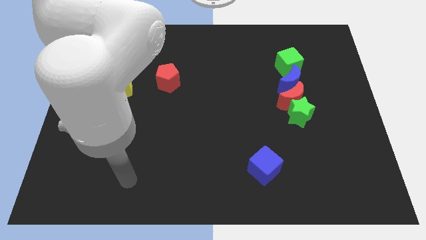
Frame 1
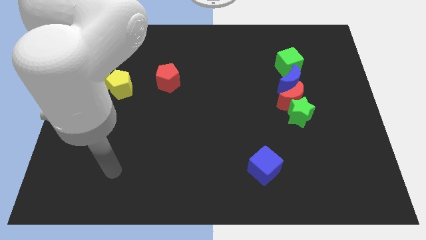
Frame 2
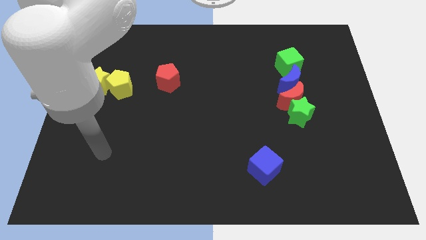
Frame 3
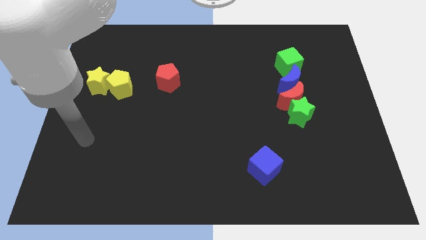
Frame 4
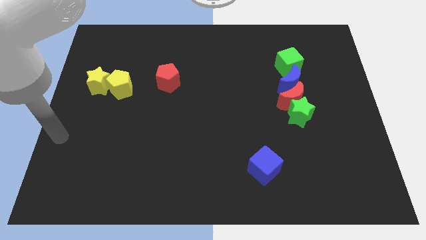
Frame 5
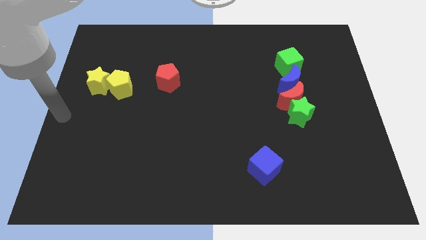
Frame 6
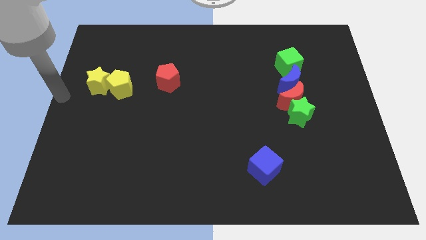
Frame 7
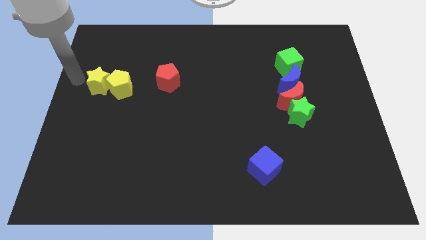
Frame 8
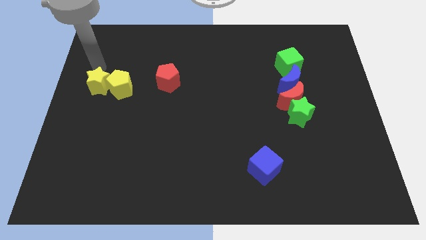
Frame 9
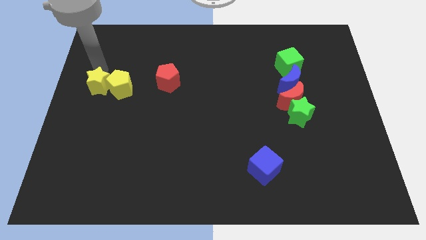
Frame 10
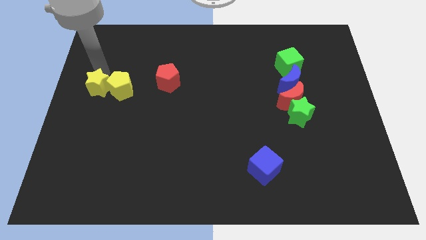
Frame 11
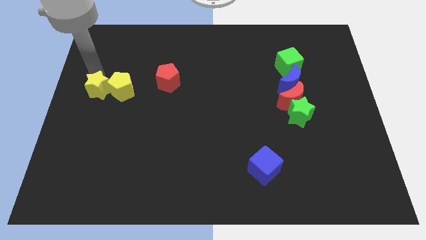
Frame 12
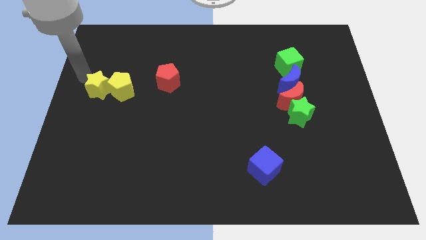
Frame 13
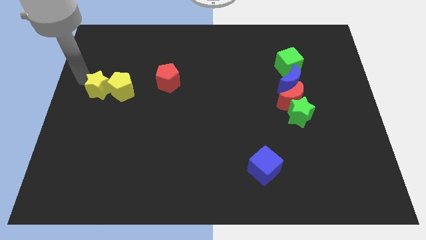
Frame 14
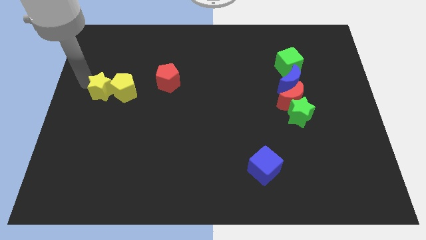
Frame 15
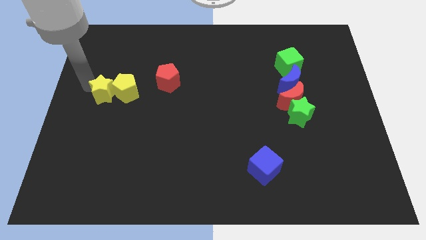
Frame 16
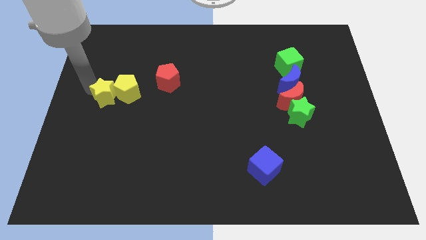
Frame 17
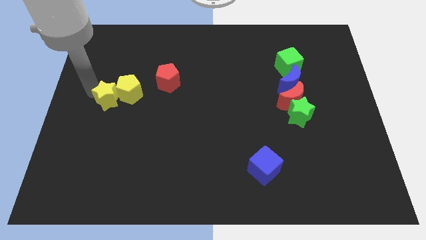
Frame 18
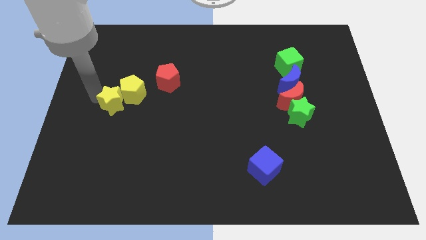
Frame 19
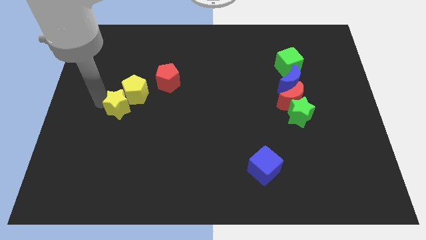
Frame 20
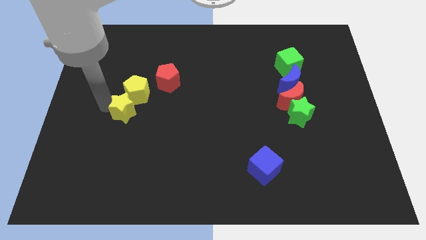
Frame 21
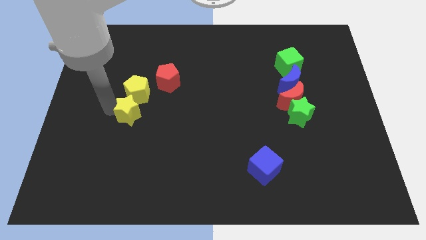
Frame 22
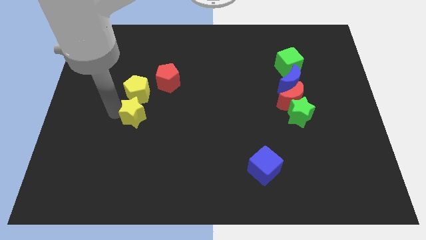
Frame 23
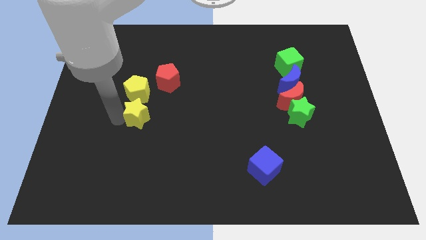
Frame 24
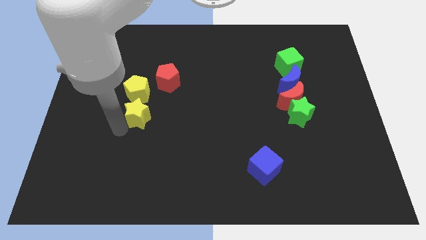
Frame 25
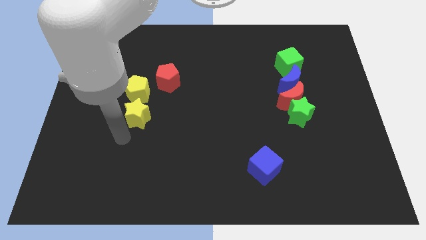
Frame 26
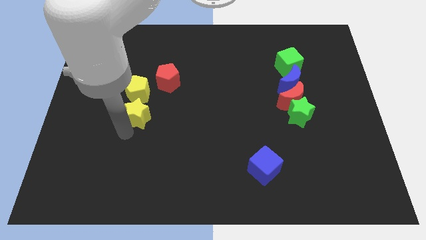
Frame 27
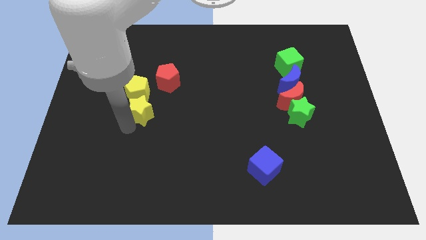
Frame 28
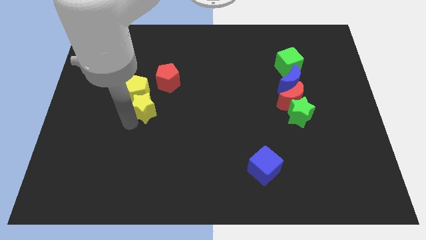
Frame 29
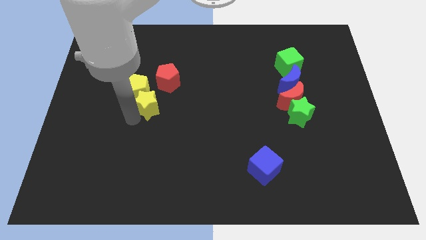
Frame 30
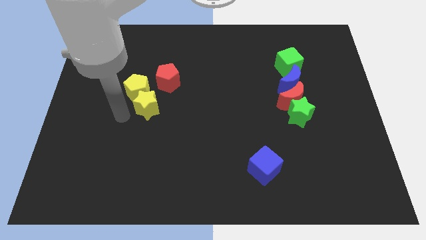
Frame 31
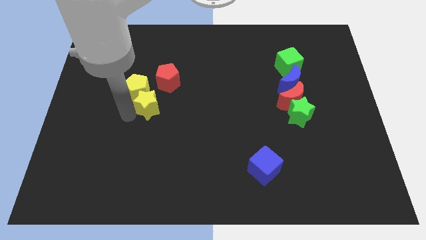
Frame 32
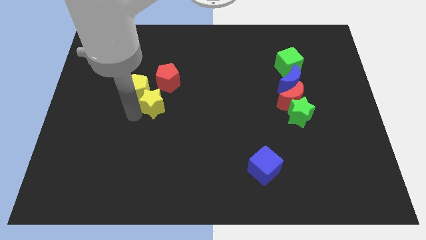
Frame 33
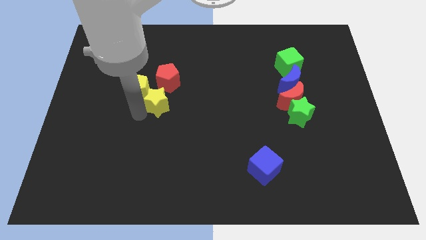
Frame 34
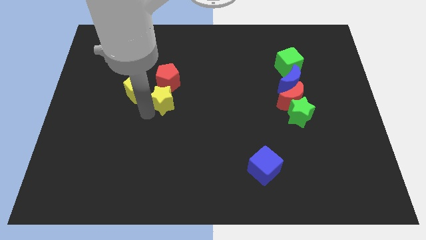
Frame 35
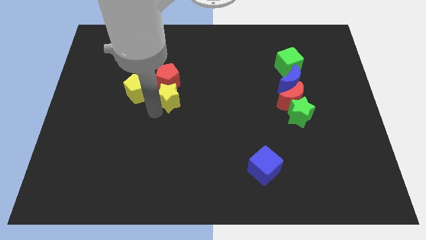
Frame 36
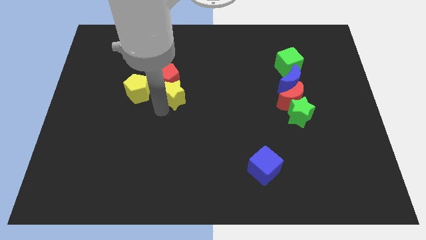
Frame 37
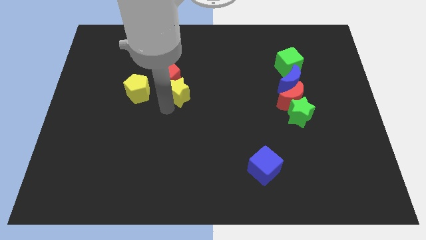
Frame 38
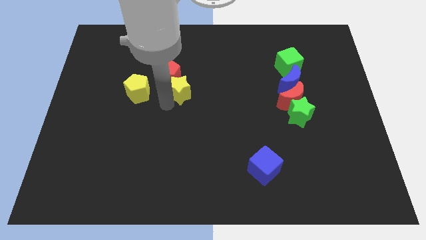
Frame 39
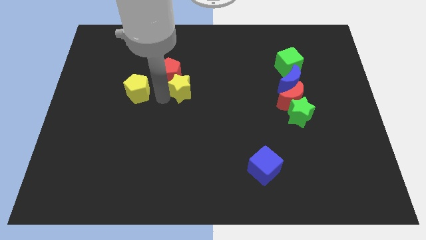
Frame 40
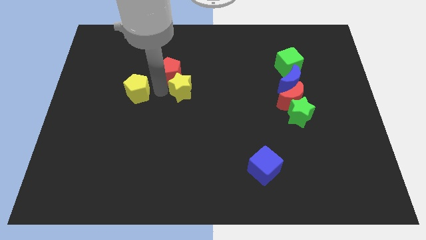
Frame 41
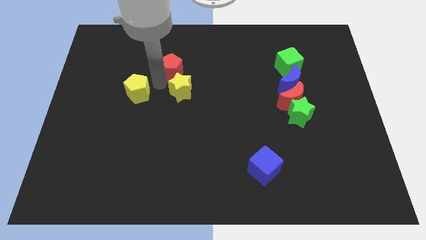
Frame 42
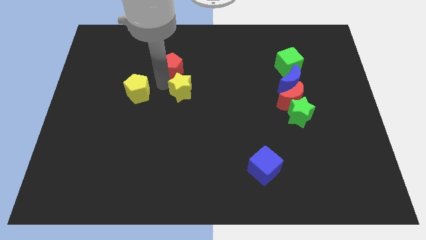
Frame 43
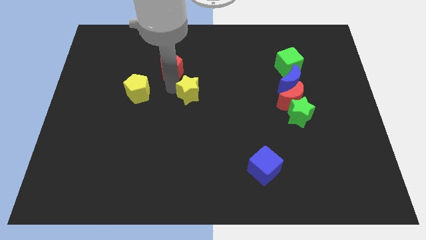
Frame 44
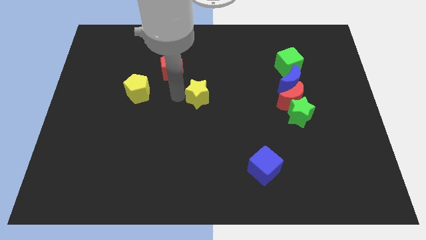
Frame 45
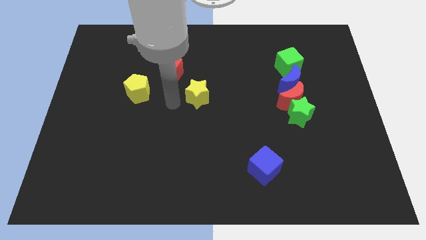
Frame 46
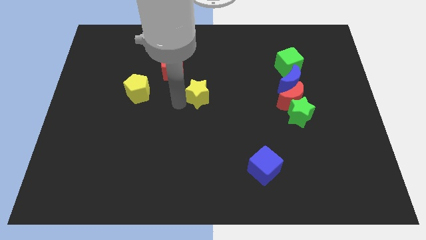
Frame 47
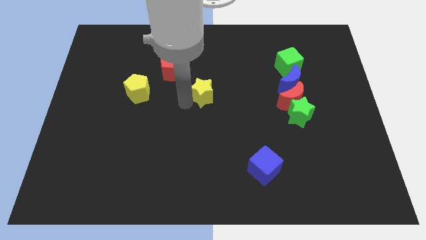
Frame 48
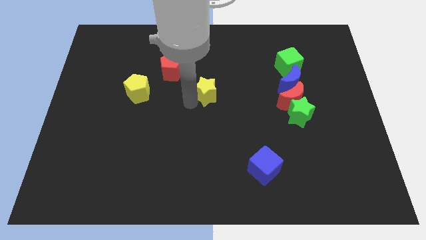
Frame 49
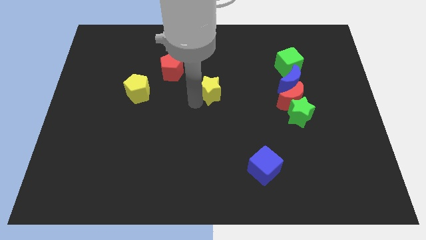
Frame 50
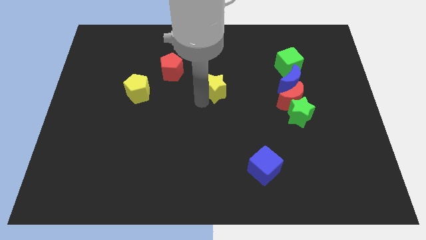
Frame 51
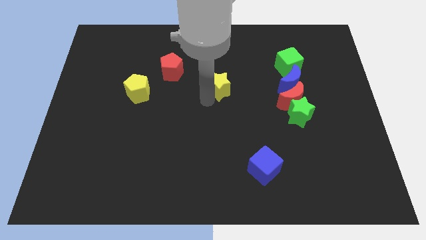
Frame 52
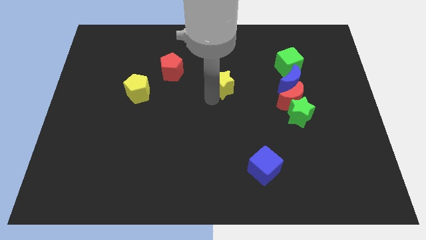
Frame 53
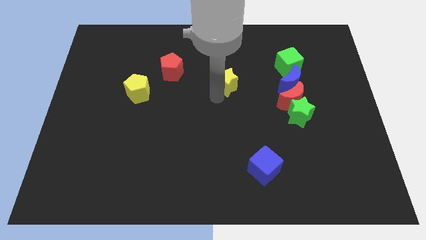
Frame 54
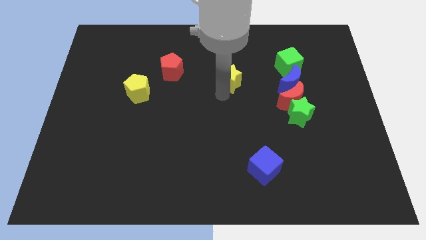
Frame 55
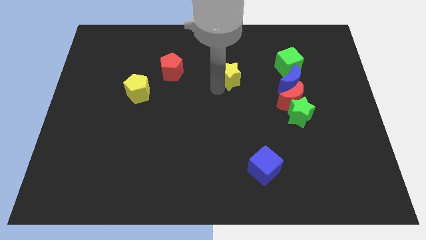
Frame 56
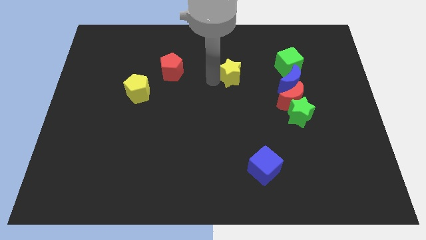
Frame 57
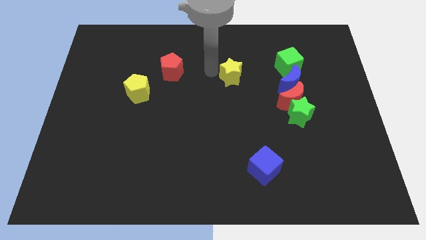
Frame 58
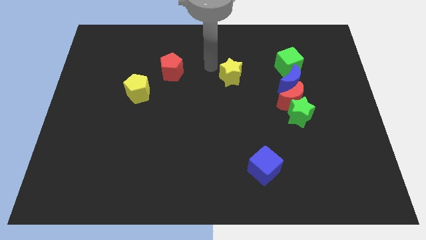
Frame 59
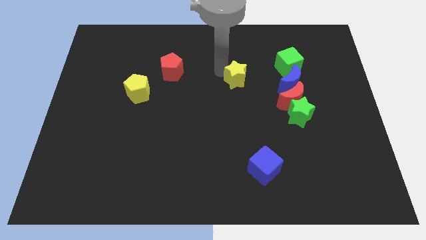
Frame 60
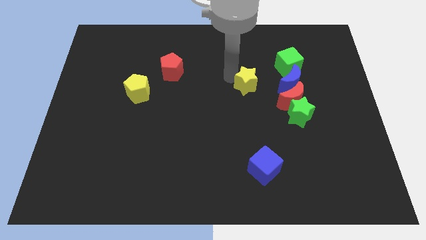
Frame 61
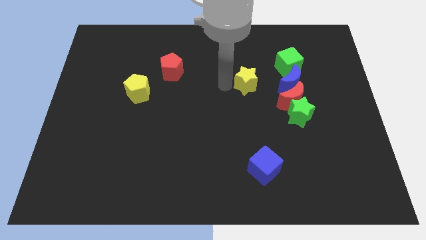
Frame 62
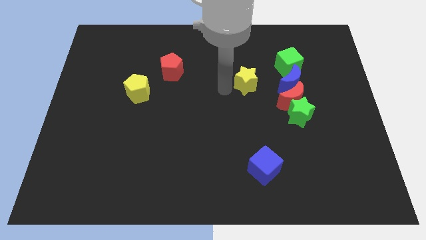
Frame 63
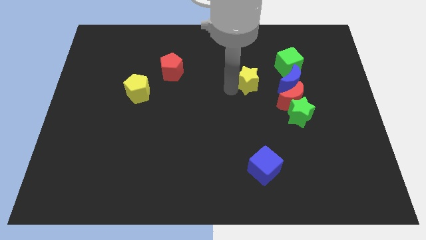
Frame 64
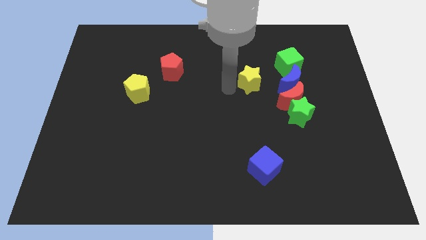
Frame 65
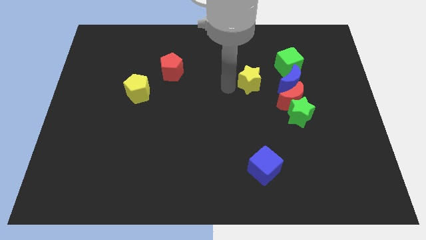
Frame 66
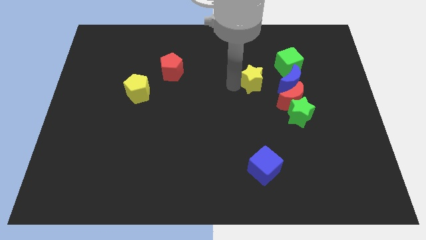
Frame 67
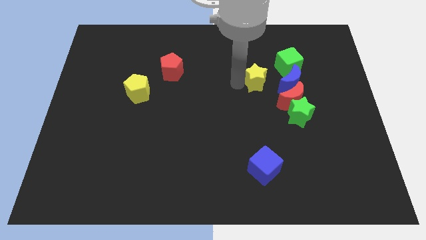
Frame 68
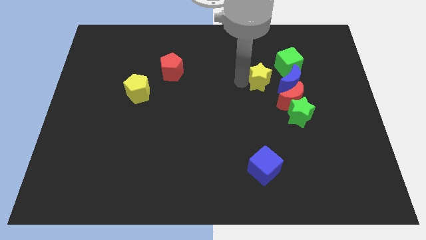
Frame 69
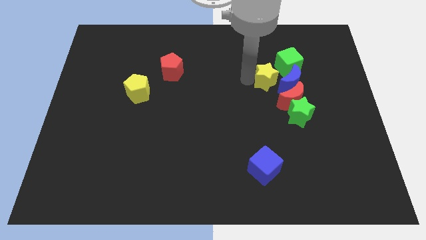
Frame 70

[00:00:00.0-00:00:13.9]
push the yellow star close to the blue moon
